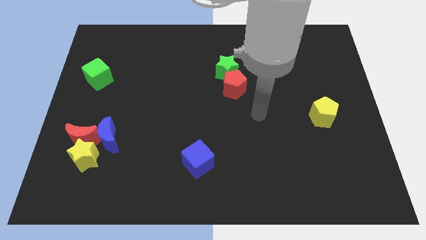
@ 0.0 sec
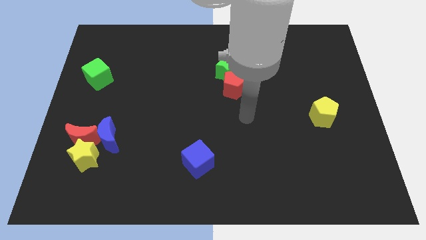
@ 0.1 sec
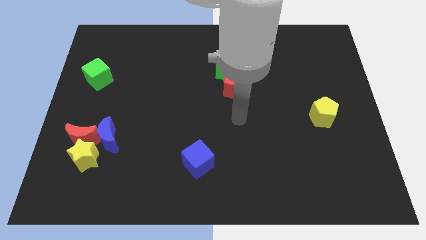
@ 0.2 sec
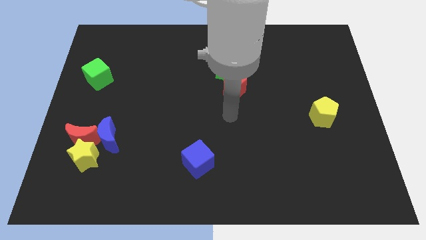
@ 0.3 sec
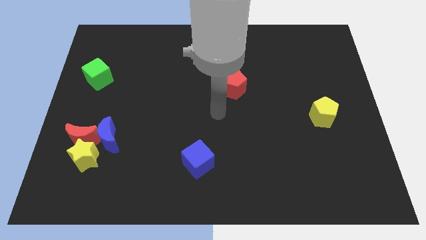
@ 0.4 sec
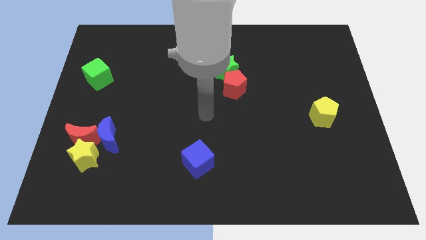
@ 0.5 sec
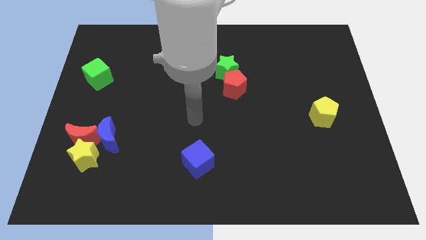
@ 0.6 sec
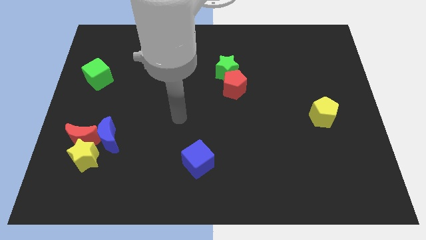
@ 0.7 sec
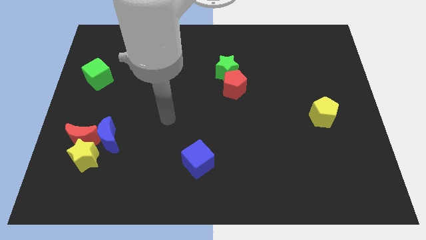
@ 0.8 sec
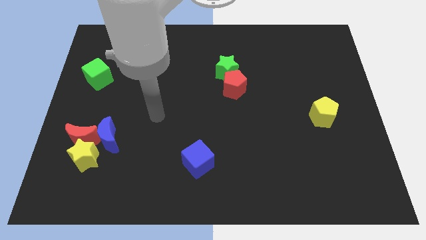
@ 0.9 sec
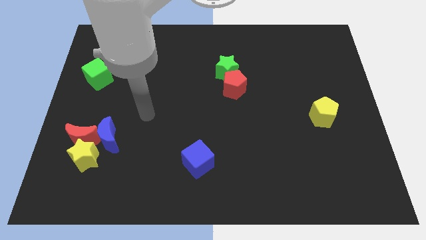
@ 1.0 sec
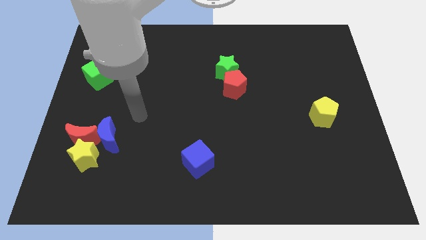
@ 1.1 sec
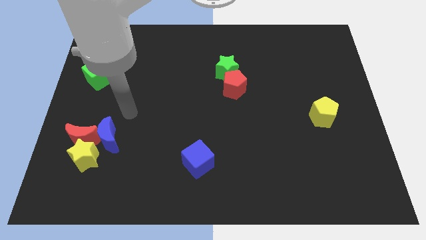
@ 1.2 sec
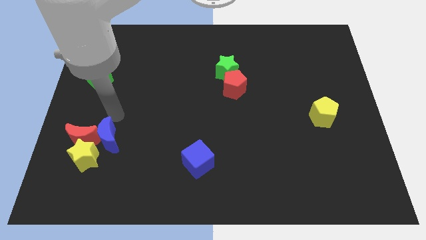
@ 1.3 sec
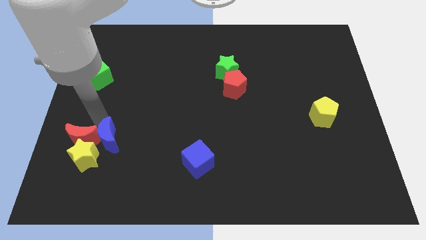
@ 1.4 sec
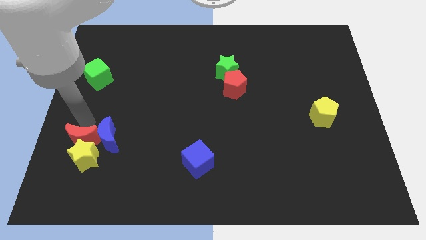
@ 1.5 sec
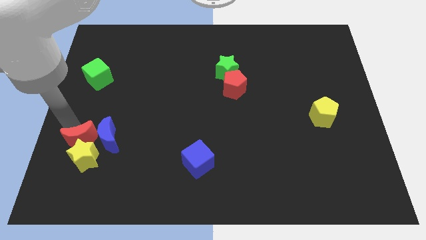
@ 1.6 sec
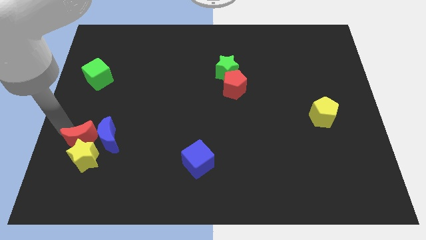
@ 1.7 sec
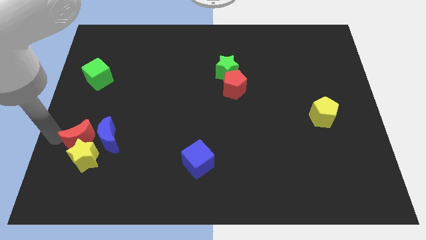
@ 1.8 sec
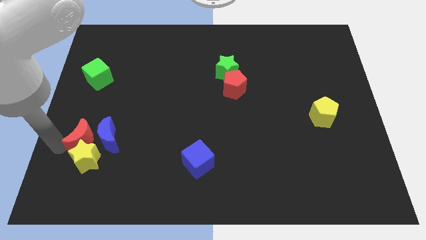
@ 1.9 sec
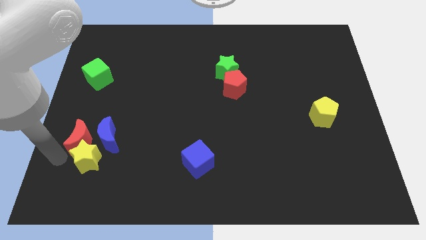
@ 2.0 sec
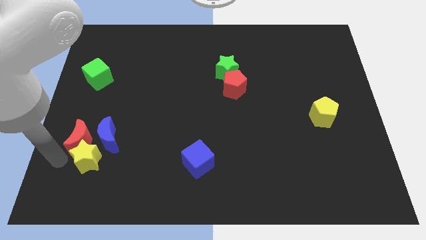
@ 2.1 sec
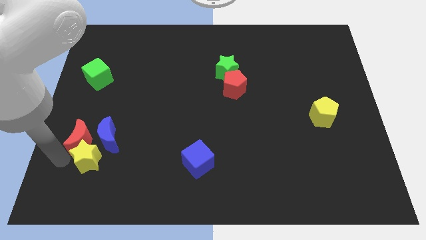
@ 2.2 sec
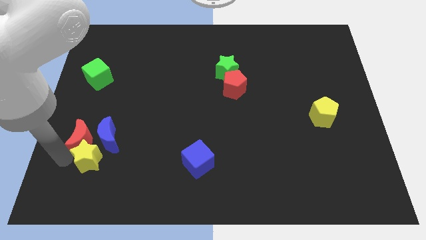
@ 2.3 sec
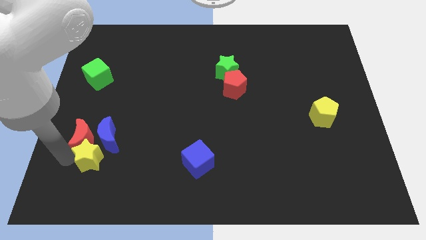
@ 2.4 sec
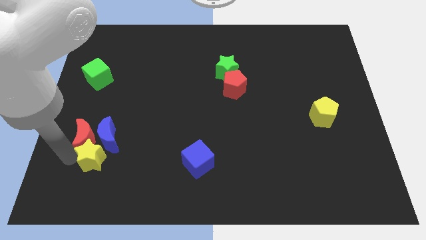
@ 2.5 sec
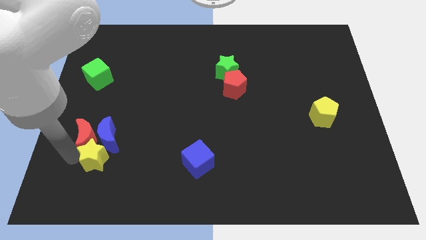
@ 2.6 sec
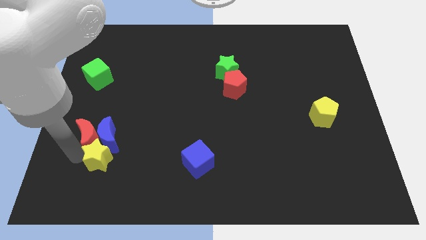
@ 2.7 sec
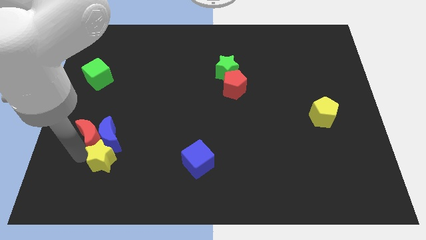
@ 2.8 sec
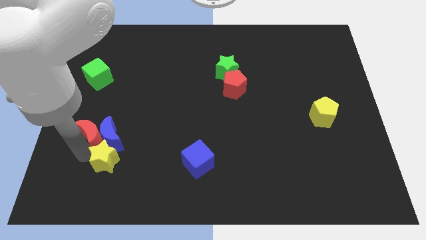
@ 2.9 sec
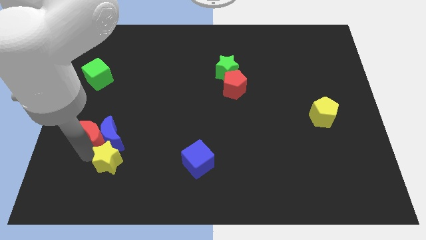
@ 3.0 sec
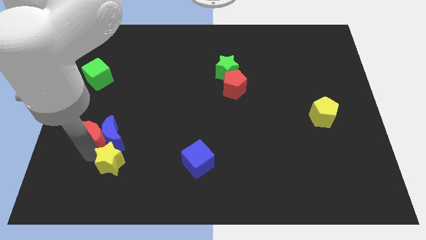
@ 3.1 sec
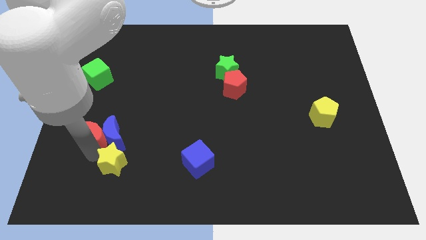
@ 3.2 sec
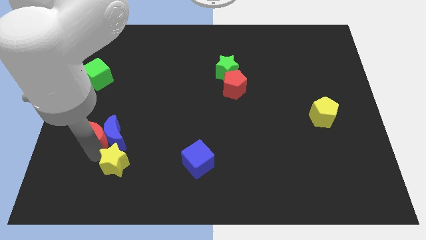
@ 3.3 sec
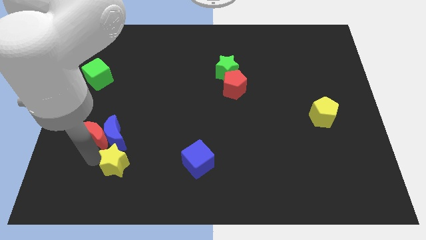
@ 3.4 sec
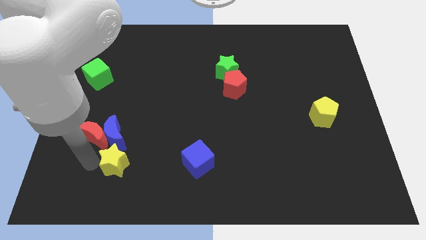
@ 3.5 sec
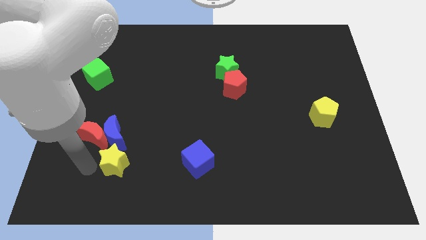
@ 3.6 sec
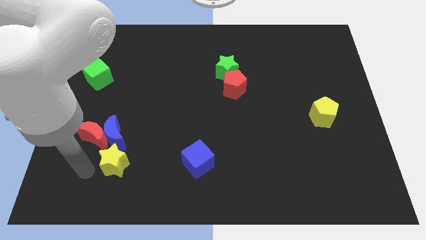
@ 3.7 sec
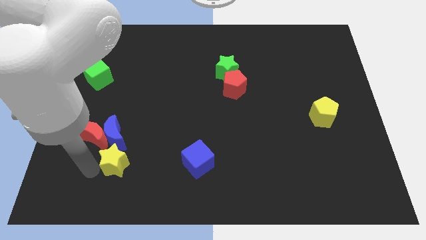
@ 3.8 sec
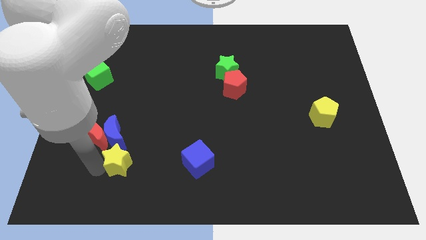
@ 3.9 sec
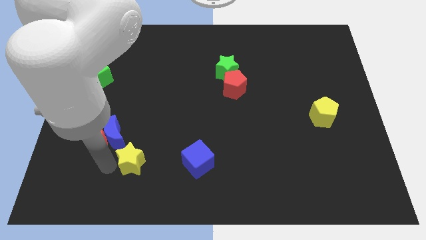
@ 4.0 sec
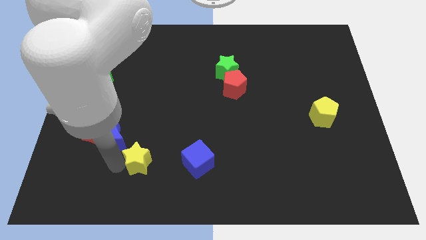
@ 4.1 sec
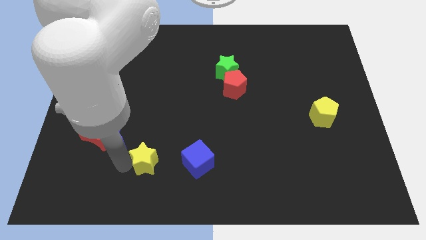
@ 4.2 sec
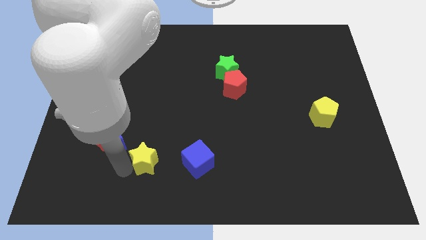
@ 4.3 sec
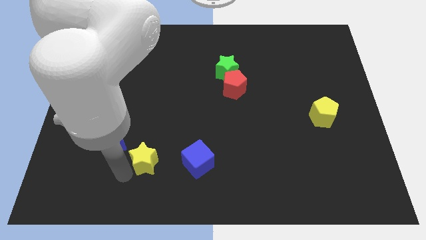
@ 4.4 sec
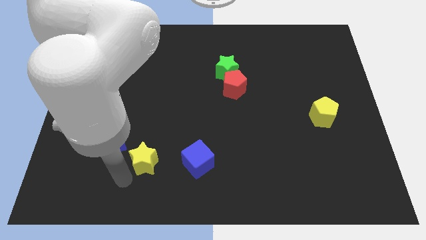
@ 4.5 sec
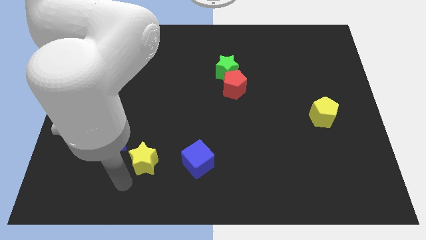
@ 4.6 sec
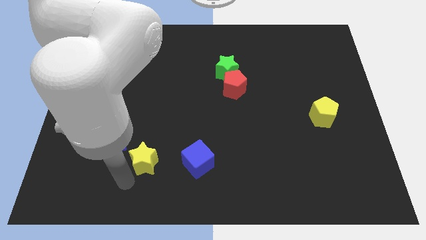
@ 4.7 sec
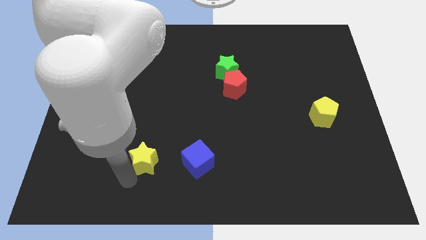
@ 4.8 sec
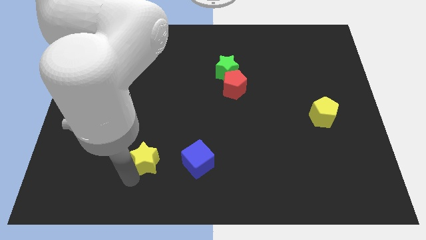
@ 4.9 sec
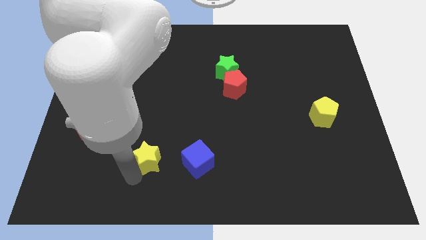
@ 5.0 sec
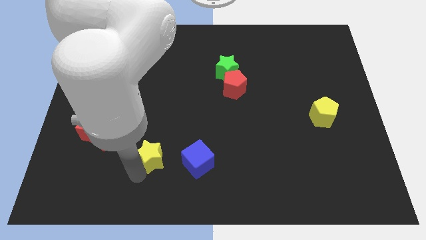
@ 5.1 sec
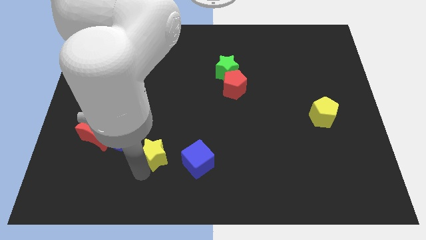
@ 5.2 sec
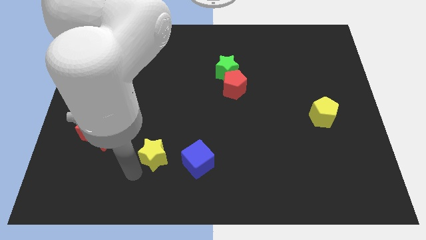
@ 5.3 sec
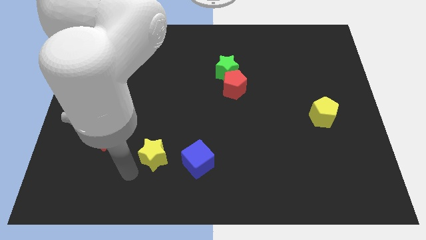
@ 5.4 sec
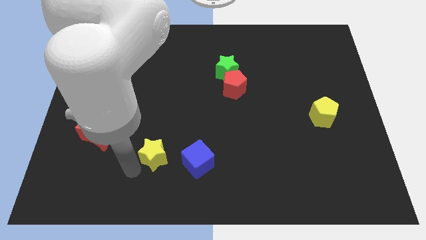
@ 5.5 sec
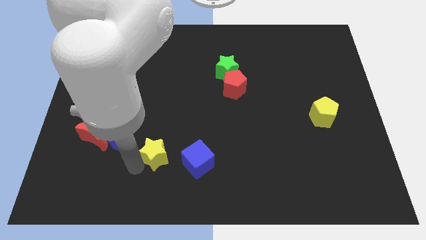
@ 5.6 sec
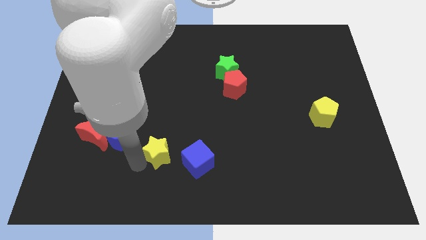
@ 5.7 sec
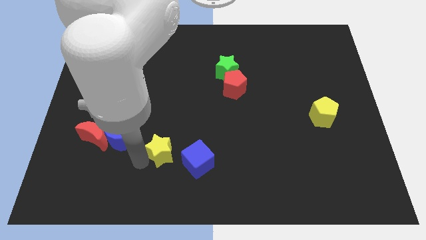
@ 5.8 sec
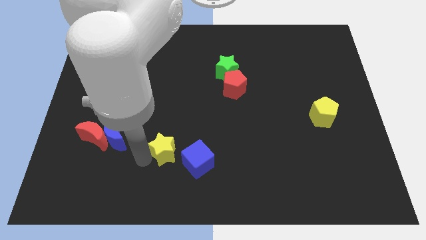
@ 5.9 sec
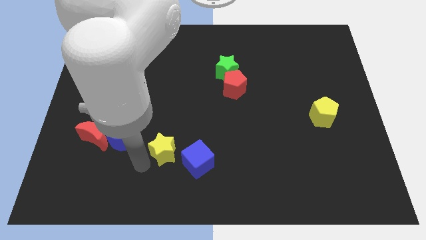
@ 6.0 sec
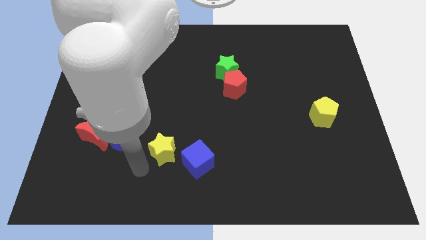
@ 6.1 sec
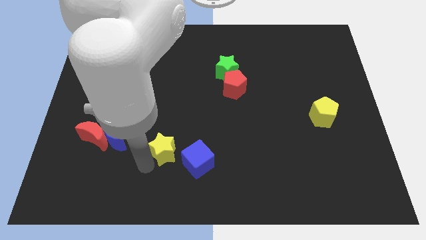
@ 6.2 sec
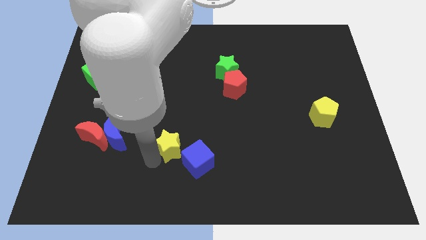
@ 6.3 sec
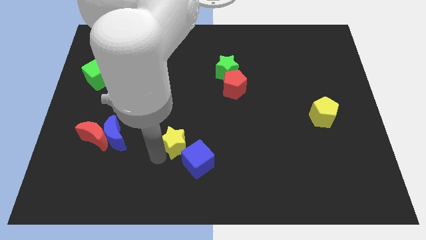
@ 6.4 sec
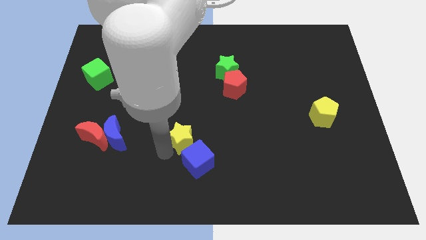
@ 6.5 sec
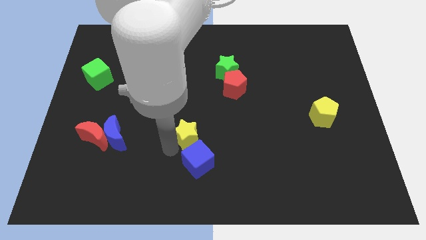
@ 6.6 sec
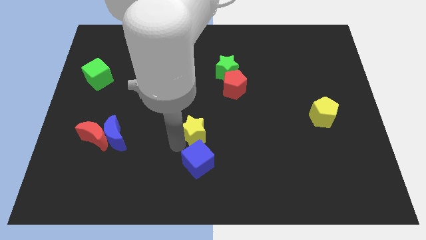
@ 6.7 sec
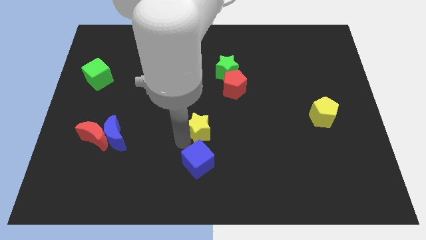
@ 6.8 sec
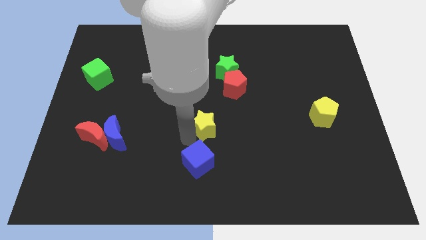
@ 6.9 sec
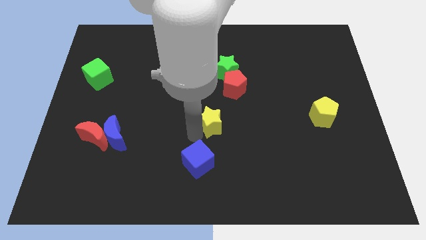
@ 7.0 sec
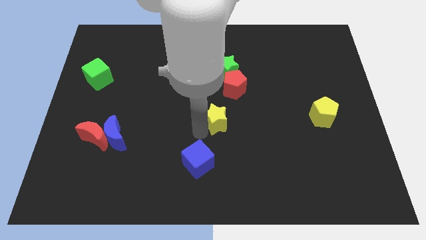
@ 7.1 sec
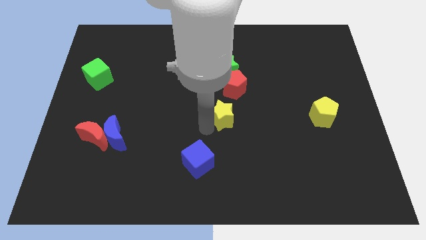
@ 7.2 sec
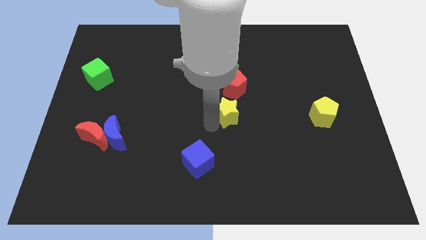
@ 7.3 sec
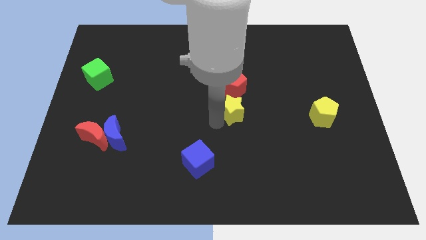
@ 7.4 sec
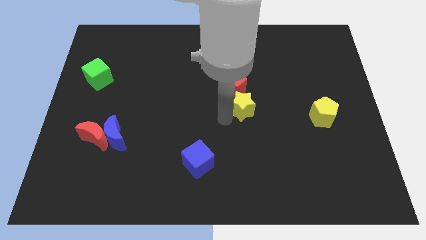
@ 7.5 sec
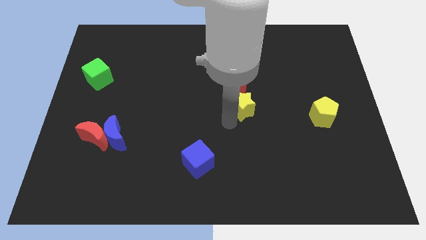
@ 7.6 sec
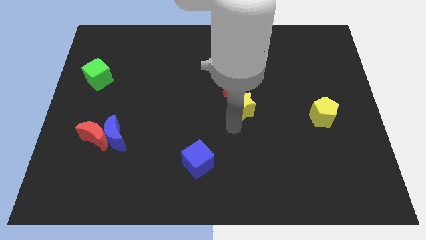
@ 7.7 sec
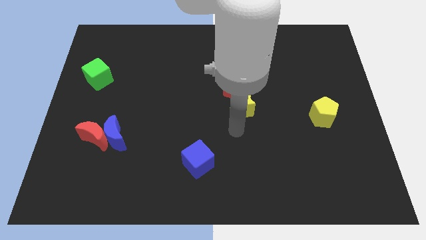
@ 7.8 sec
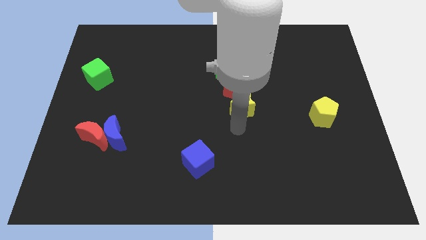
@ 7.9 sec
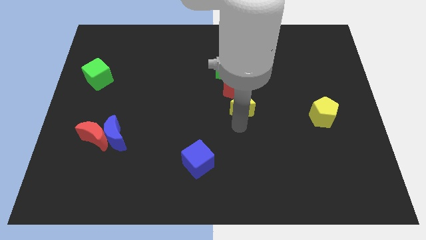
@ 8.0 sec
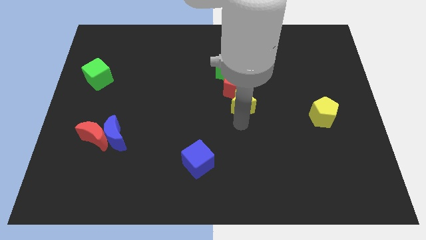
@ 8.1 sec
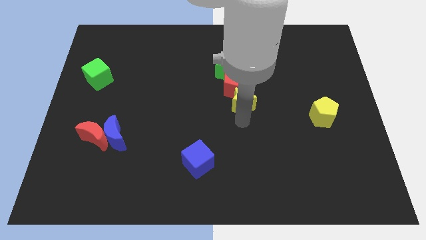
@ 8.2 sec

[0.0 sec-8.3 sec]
move the yellow star to the bottom right side of the green star

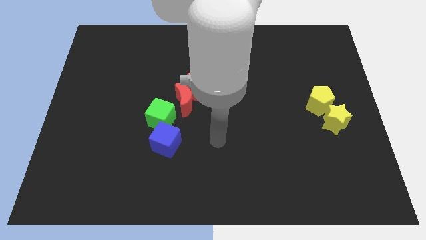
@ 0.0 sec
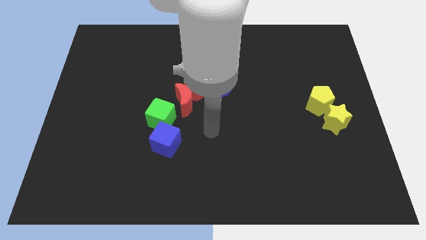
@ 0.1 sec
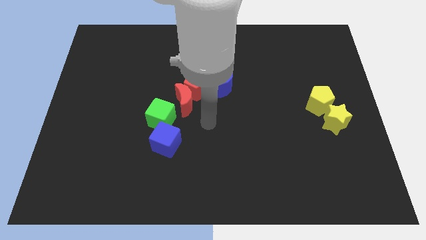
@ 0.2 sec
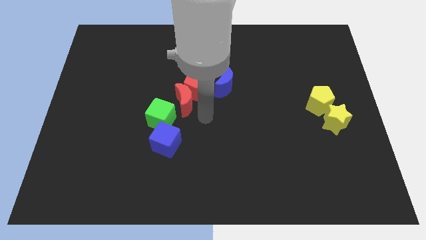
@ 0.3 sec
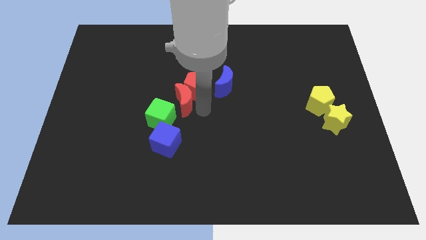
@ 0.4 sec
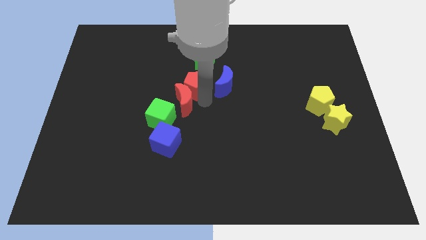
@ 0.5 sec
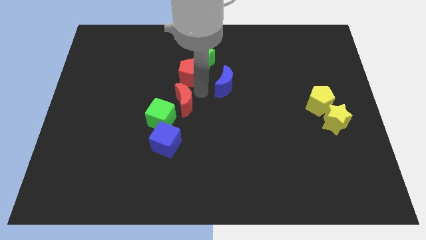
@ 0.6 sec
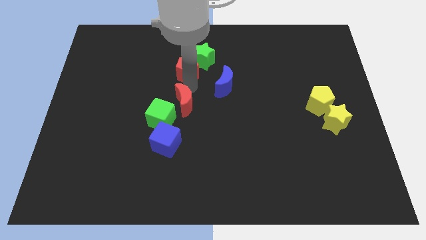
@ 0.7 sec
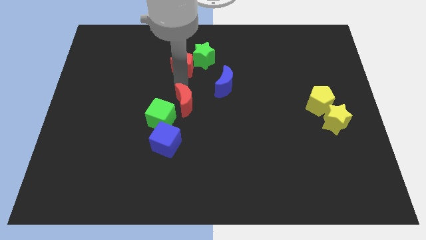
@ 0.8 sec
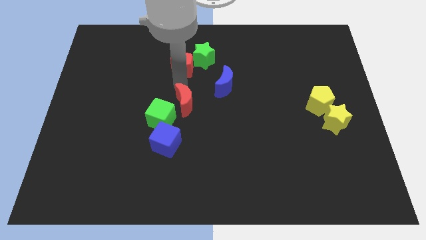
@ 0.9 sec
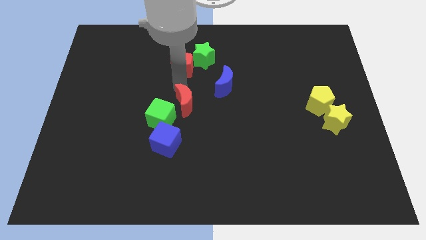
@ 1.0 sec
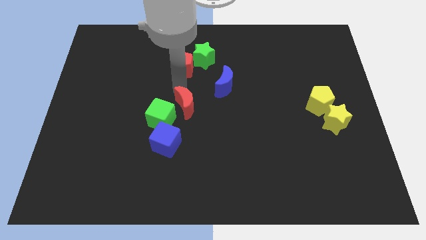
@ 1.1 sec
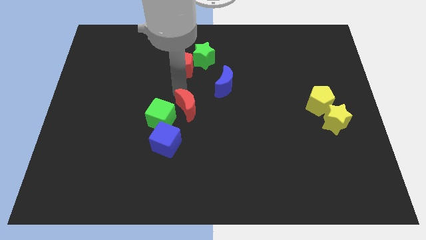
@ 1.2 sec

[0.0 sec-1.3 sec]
put the red moon to the top right side of the blue cube
